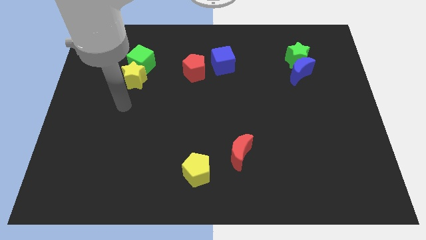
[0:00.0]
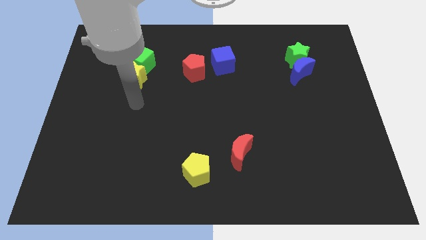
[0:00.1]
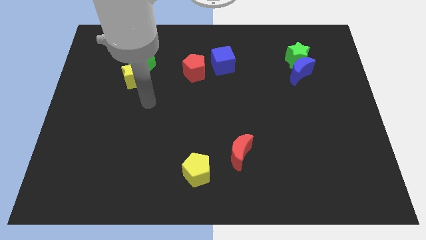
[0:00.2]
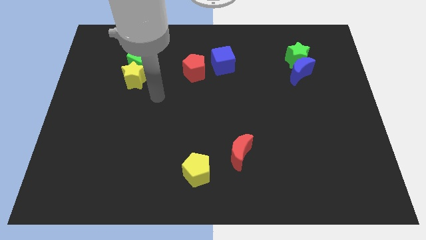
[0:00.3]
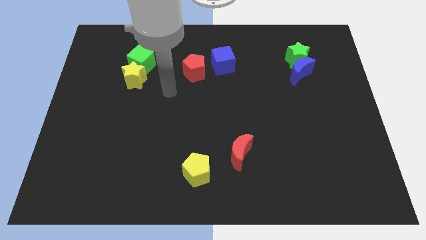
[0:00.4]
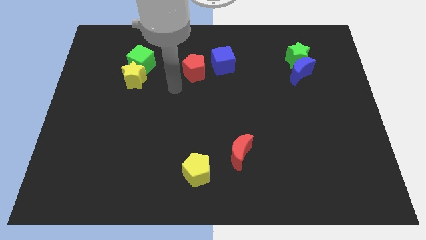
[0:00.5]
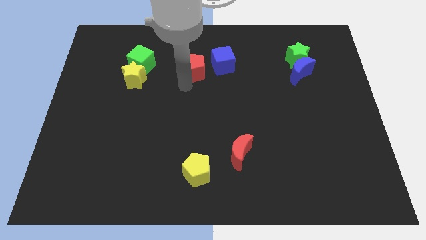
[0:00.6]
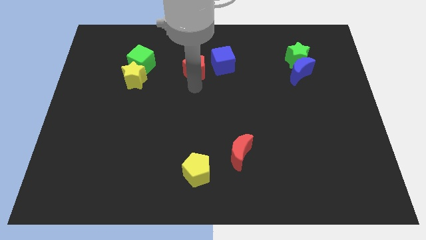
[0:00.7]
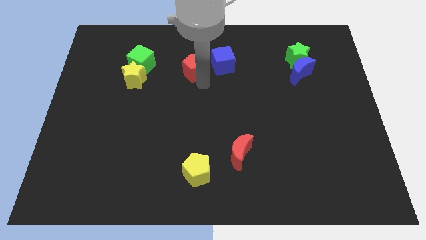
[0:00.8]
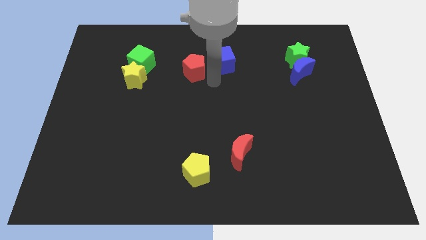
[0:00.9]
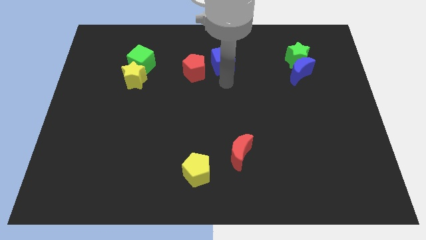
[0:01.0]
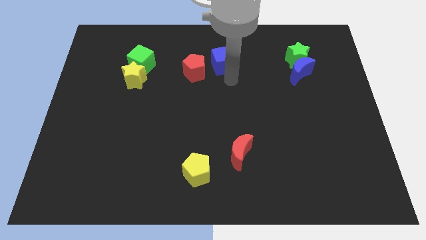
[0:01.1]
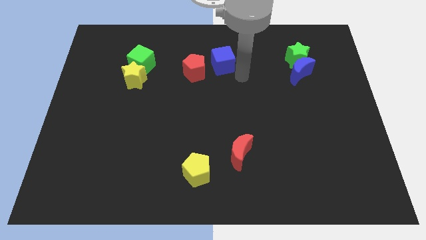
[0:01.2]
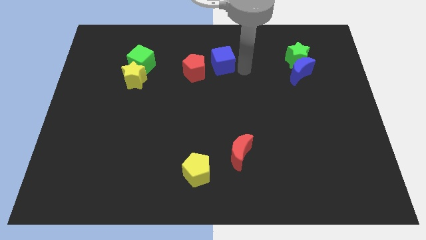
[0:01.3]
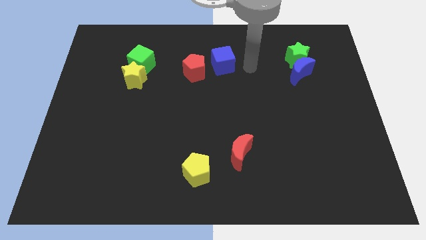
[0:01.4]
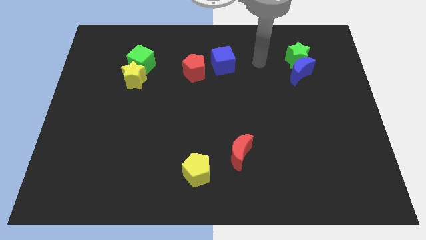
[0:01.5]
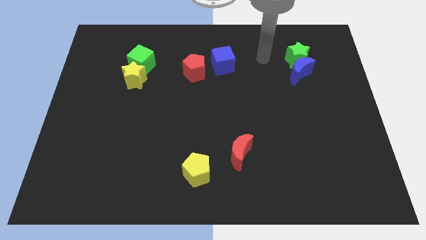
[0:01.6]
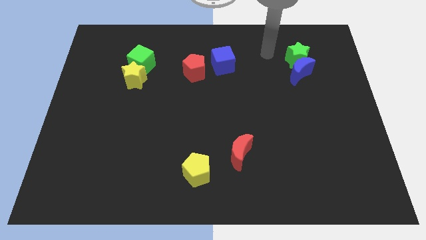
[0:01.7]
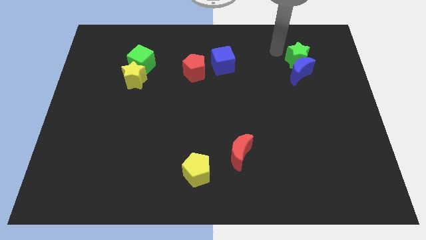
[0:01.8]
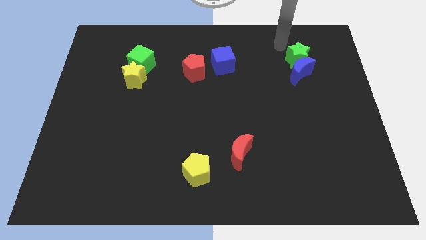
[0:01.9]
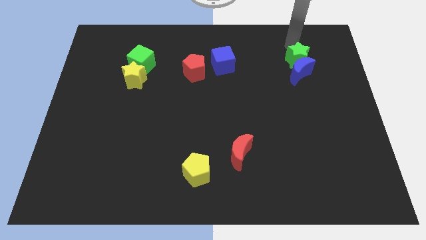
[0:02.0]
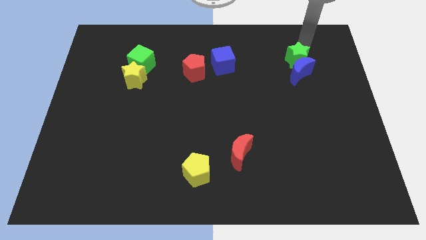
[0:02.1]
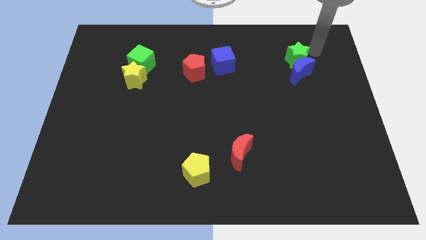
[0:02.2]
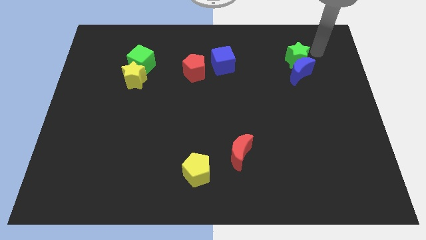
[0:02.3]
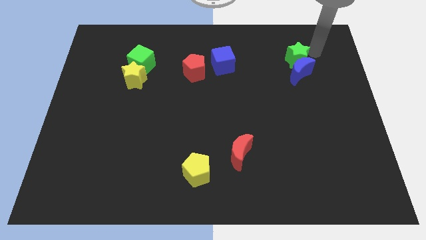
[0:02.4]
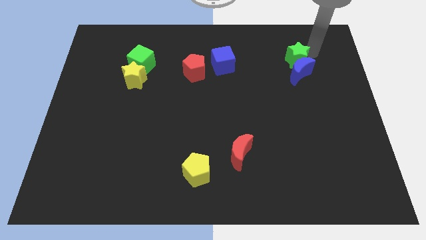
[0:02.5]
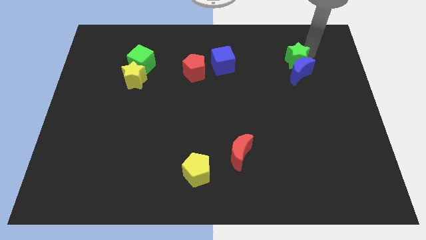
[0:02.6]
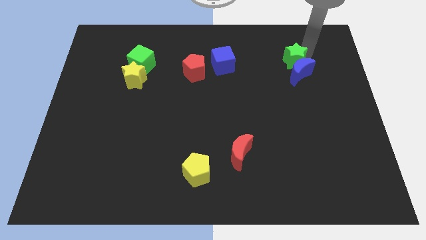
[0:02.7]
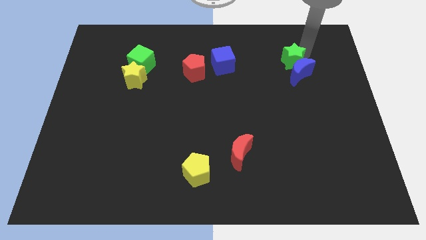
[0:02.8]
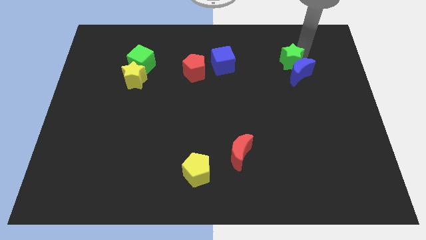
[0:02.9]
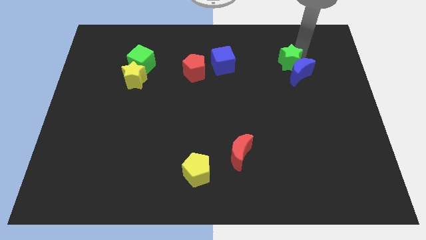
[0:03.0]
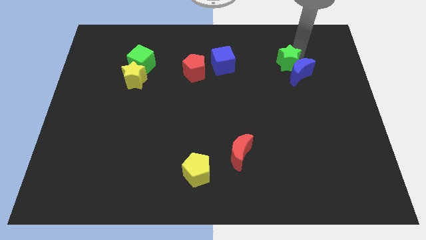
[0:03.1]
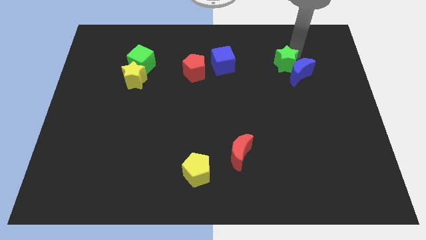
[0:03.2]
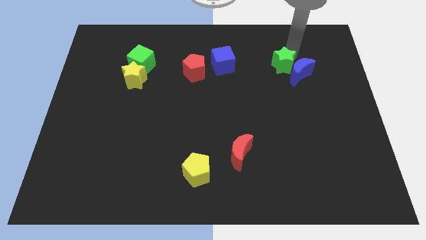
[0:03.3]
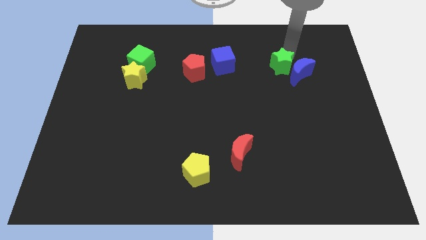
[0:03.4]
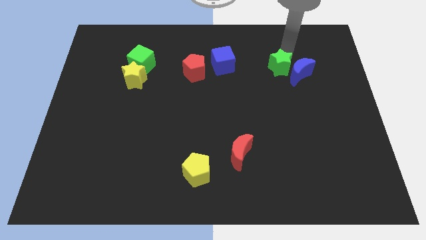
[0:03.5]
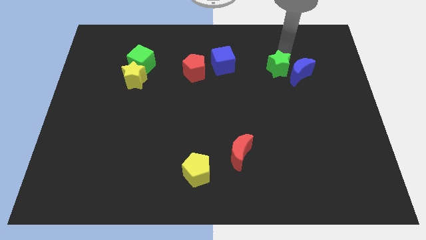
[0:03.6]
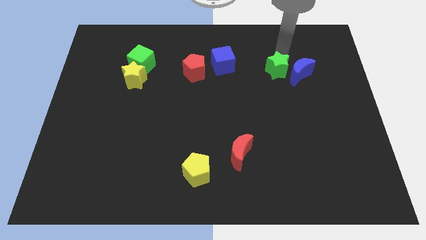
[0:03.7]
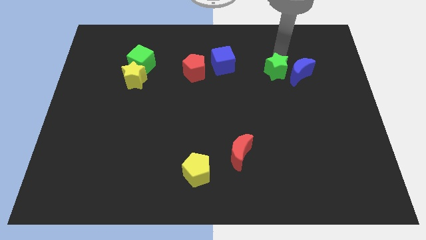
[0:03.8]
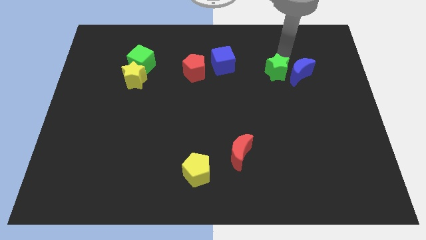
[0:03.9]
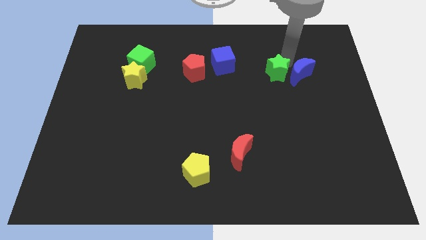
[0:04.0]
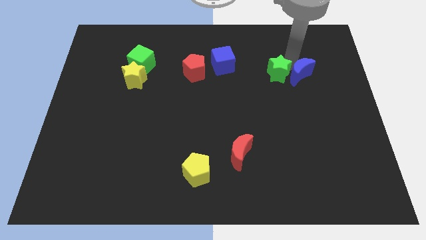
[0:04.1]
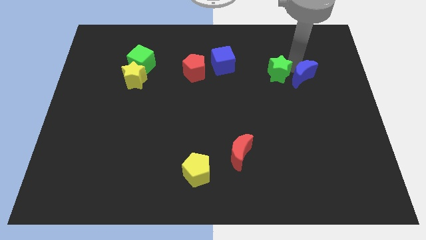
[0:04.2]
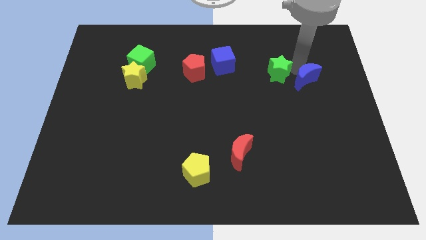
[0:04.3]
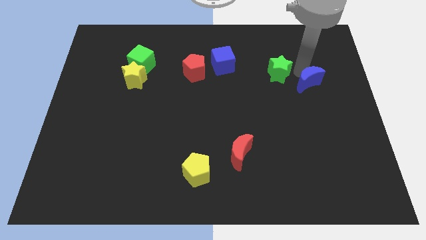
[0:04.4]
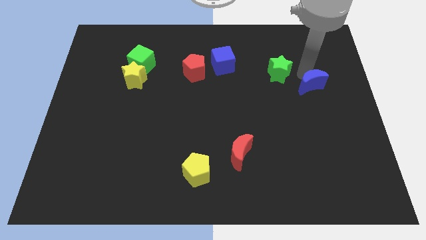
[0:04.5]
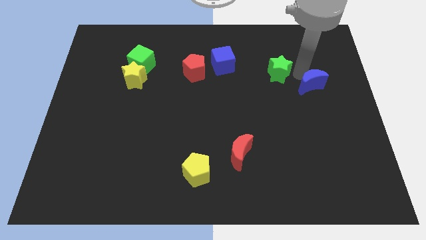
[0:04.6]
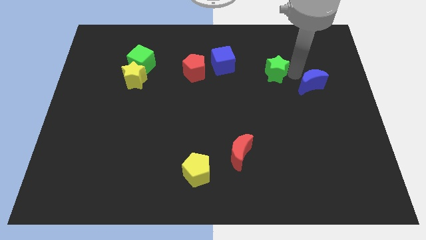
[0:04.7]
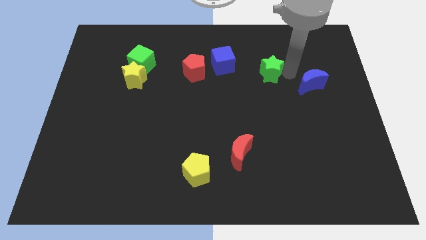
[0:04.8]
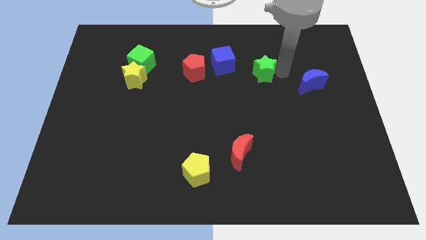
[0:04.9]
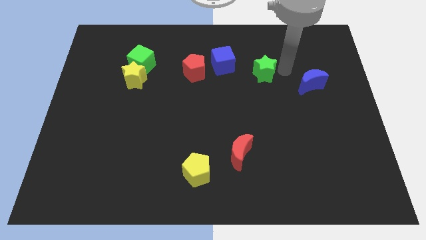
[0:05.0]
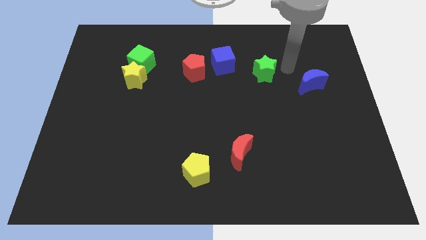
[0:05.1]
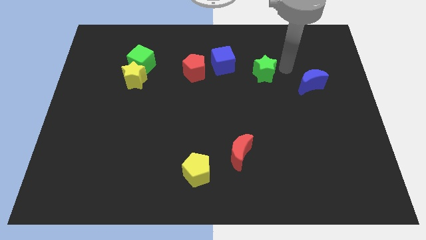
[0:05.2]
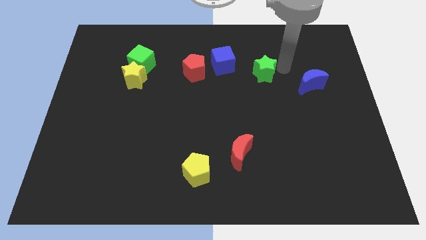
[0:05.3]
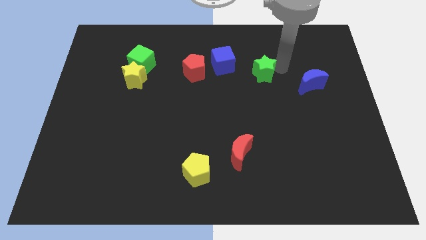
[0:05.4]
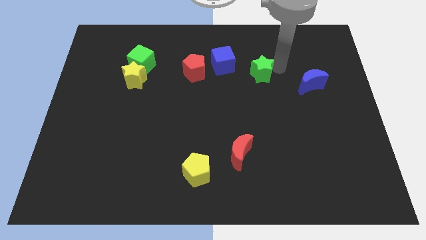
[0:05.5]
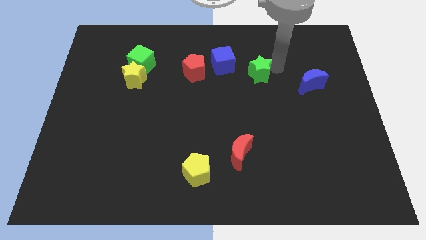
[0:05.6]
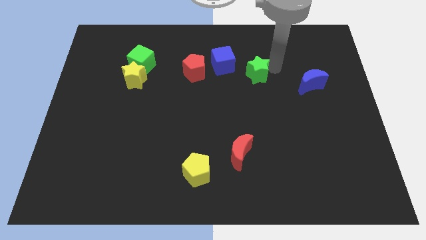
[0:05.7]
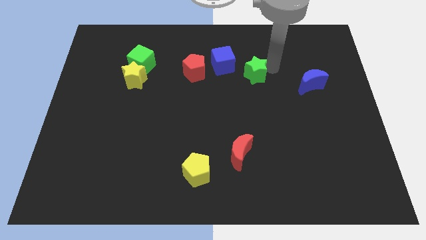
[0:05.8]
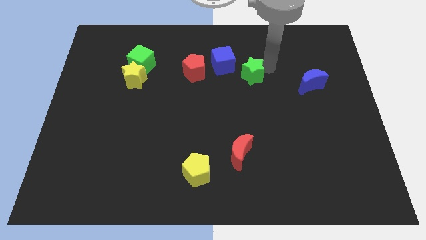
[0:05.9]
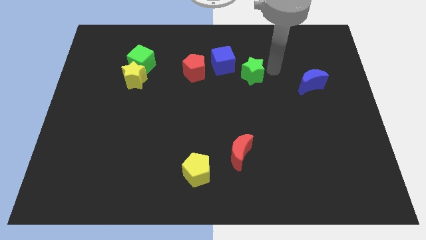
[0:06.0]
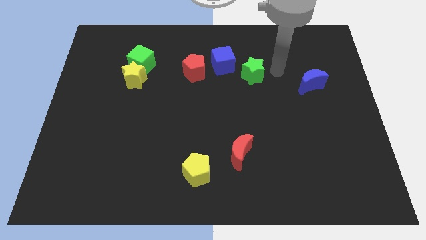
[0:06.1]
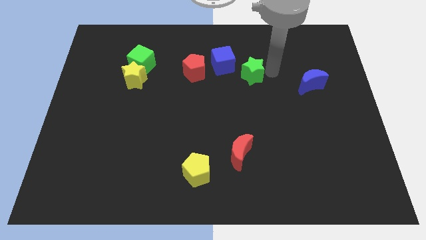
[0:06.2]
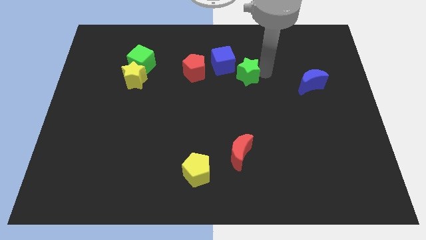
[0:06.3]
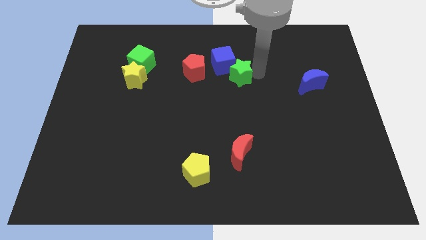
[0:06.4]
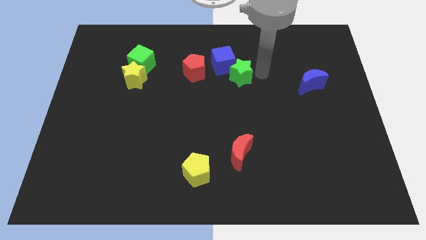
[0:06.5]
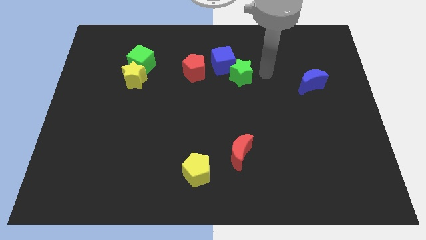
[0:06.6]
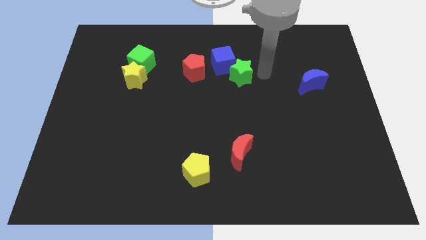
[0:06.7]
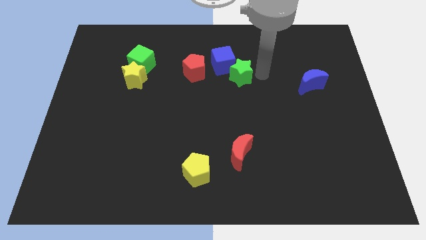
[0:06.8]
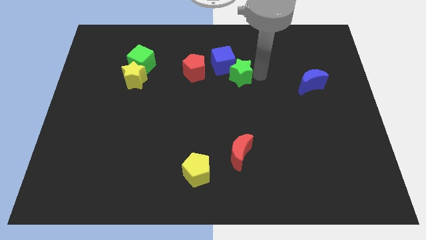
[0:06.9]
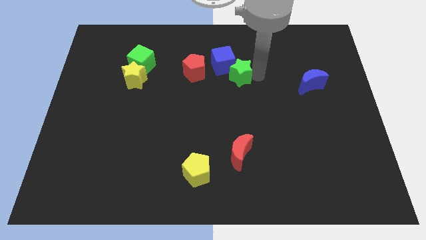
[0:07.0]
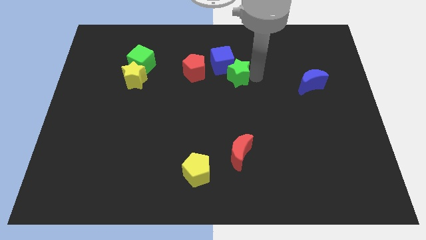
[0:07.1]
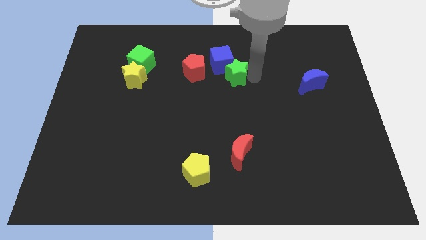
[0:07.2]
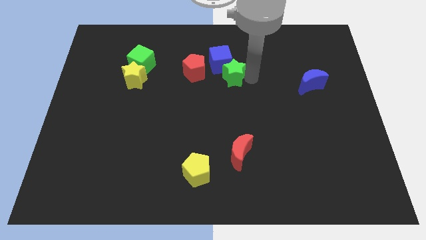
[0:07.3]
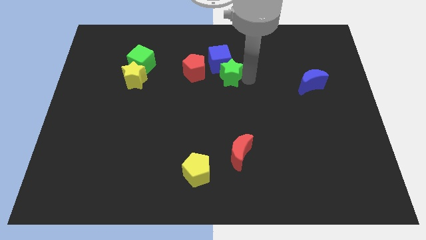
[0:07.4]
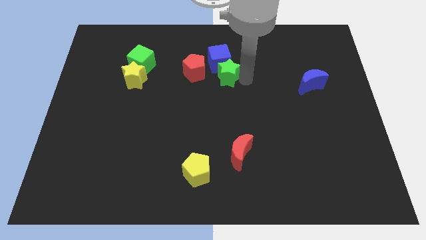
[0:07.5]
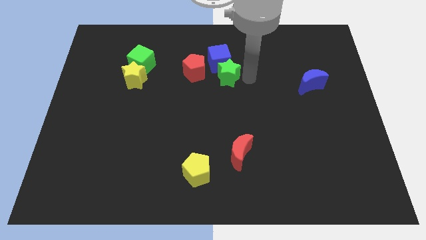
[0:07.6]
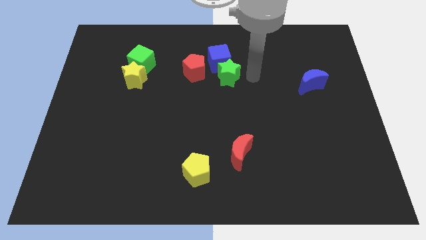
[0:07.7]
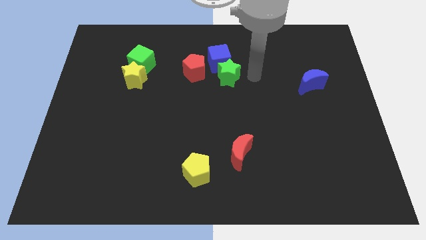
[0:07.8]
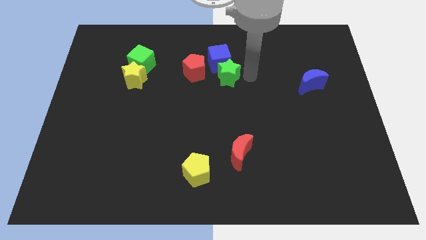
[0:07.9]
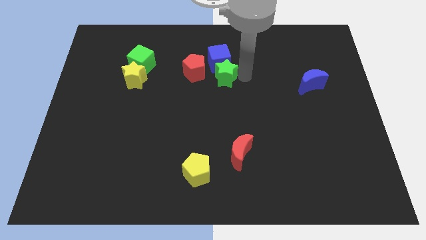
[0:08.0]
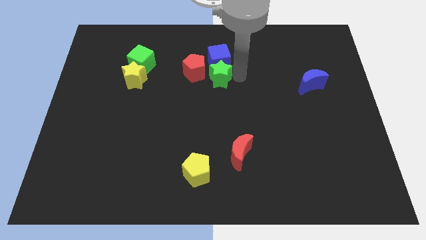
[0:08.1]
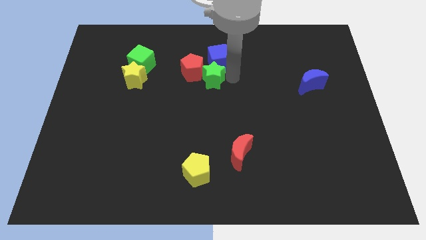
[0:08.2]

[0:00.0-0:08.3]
push the green star next to the red pentagon
